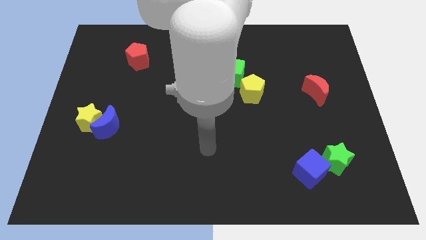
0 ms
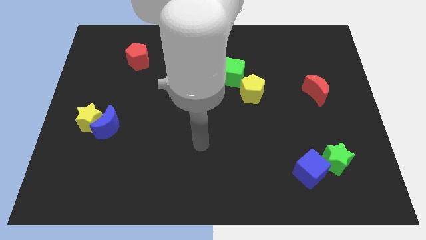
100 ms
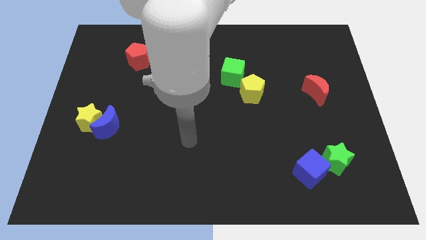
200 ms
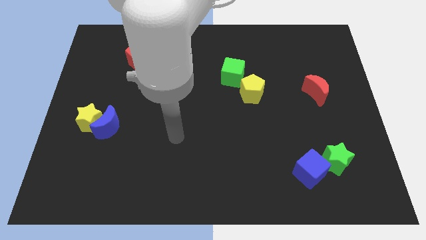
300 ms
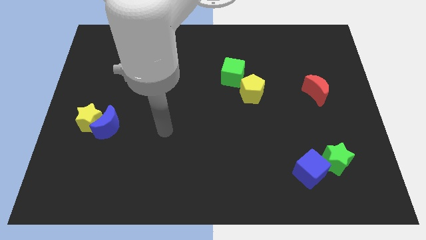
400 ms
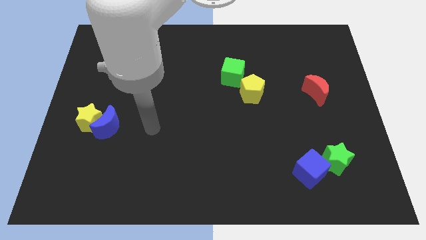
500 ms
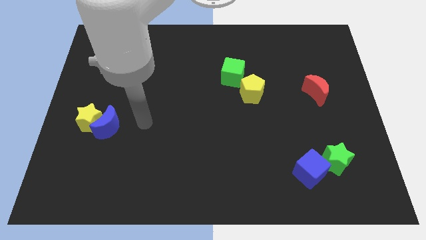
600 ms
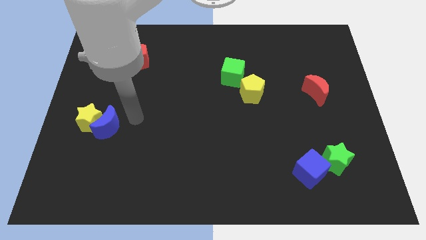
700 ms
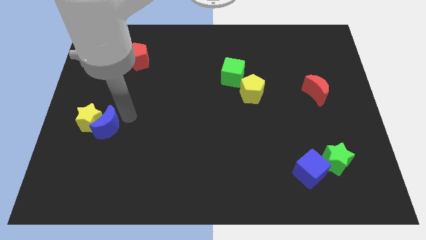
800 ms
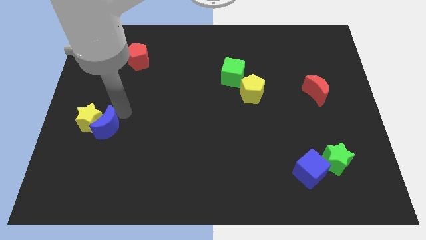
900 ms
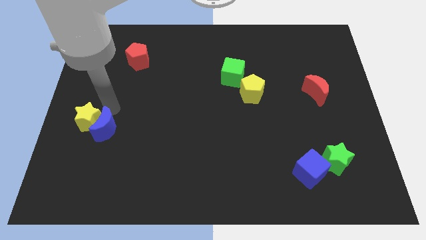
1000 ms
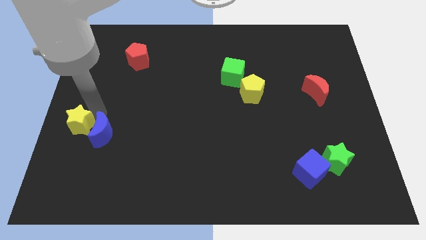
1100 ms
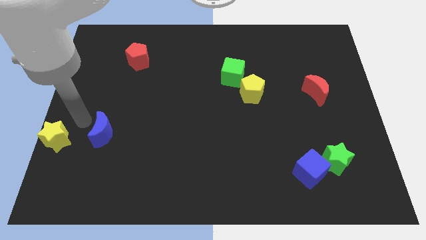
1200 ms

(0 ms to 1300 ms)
move the blue moon away from the yellow star

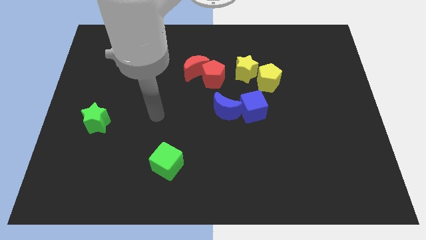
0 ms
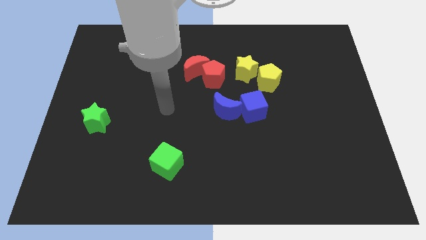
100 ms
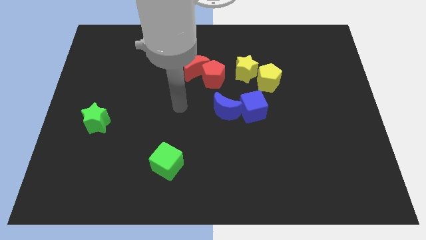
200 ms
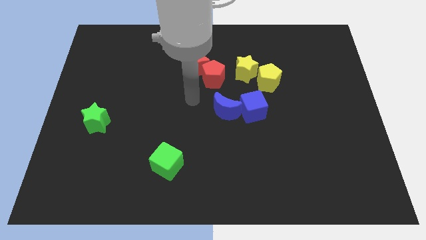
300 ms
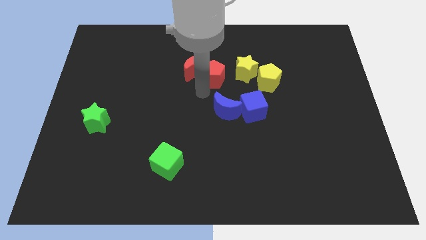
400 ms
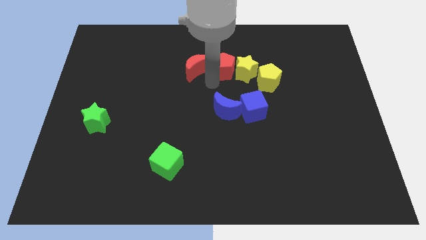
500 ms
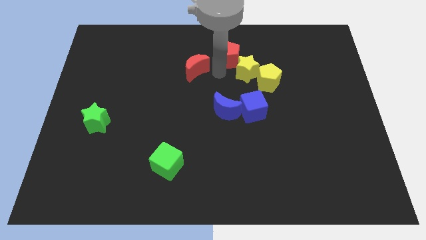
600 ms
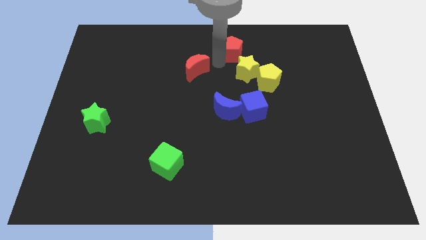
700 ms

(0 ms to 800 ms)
separate the red moon from the red pentagon

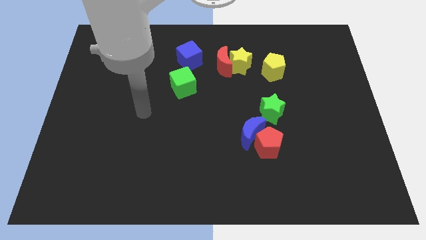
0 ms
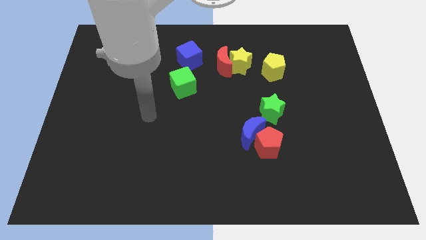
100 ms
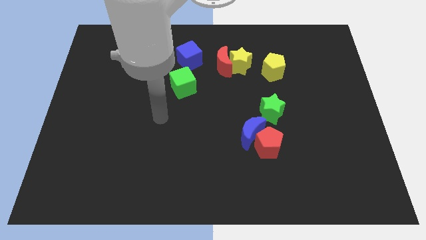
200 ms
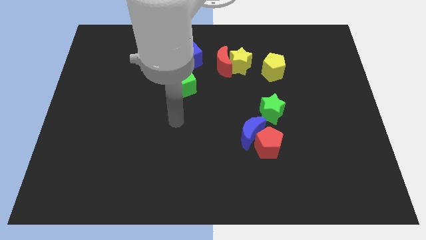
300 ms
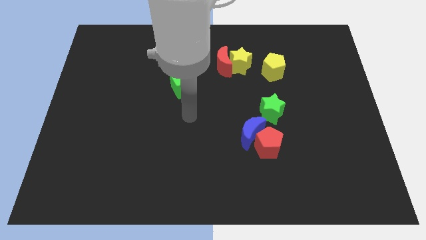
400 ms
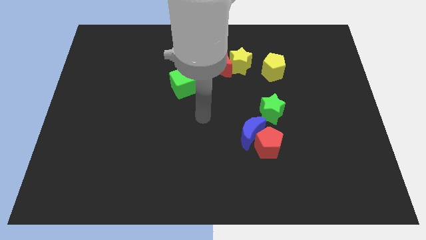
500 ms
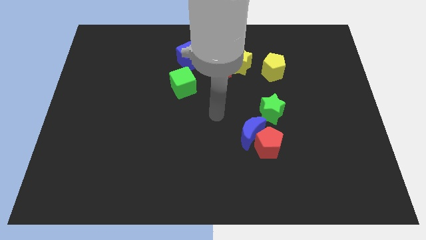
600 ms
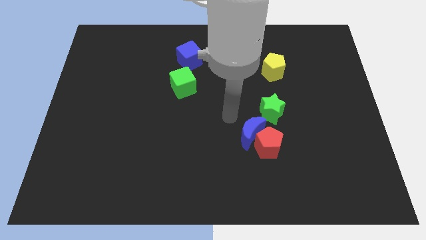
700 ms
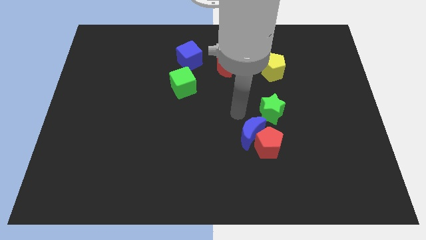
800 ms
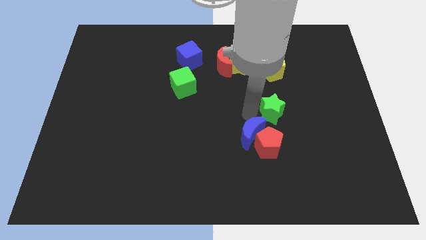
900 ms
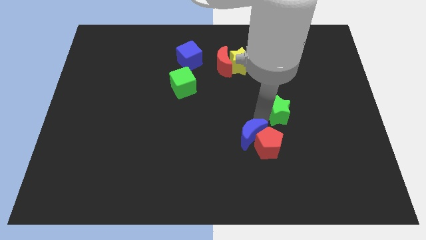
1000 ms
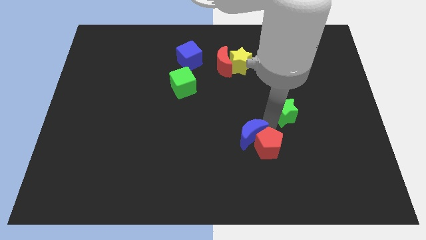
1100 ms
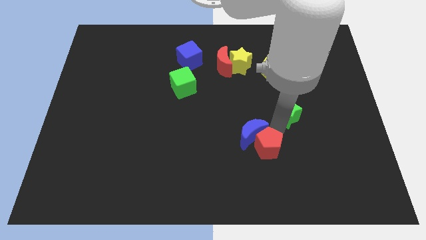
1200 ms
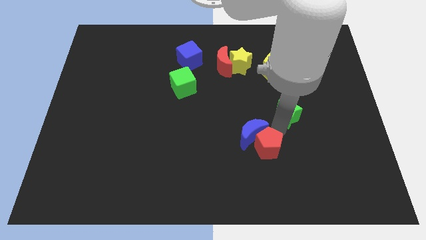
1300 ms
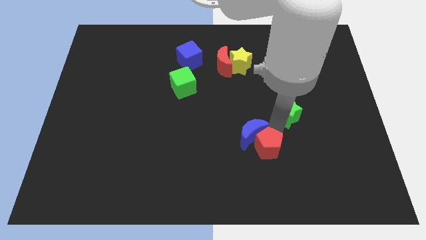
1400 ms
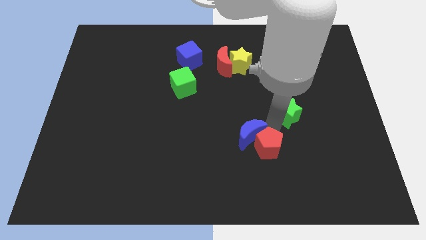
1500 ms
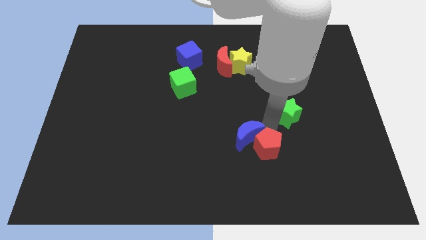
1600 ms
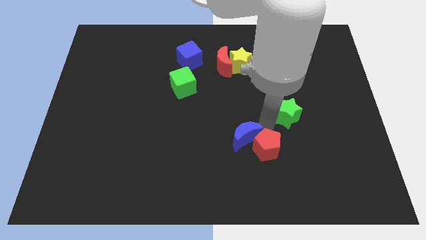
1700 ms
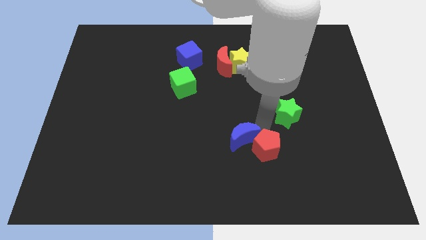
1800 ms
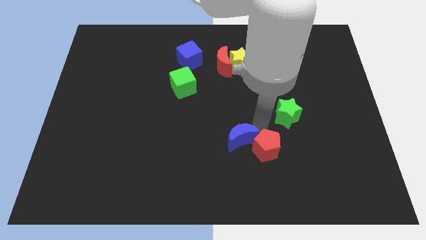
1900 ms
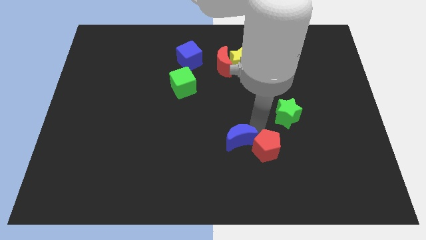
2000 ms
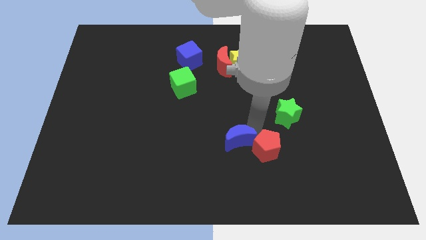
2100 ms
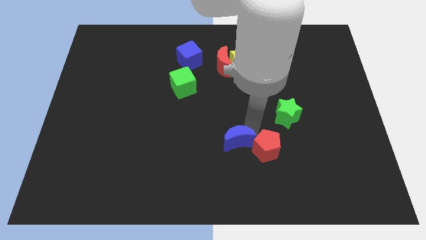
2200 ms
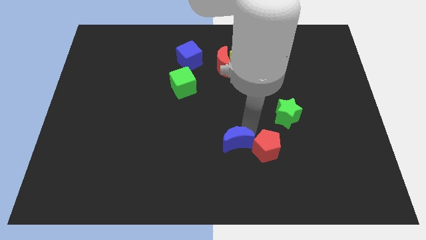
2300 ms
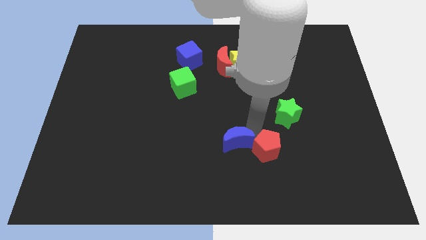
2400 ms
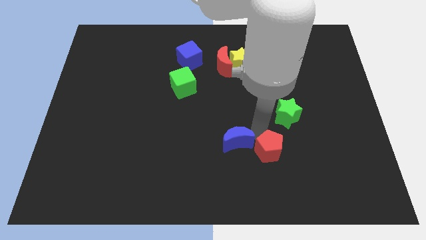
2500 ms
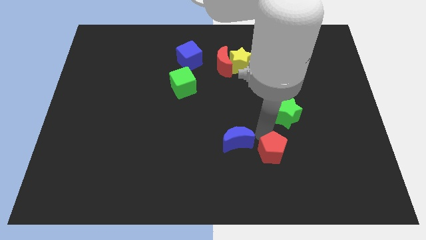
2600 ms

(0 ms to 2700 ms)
move the blue moon away from the red pentagon and green star

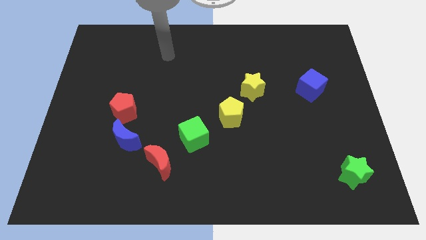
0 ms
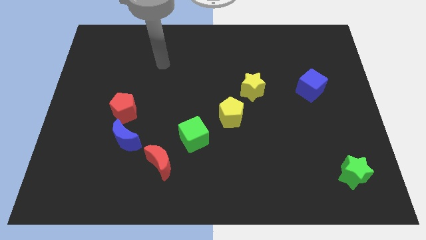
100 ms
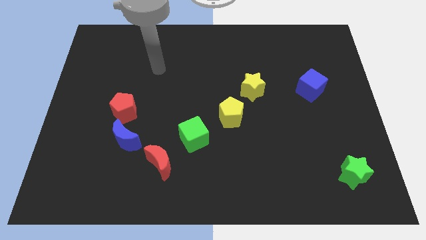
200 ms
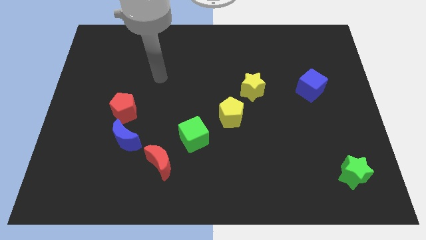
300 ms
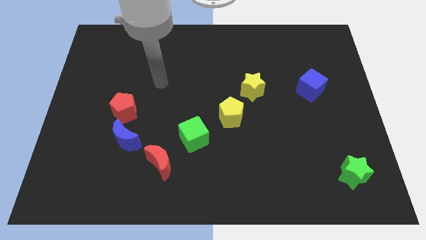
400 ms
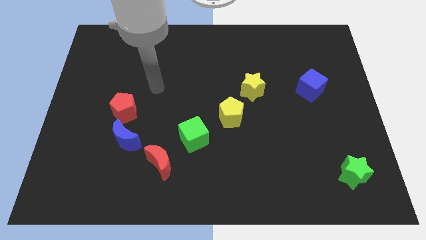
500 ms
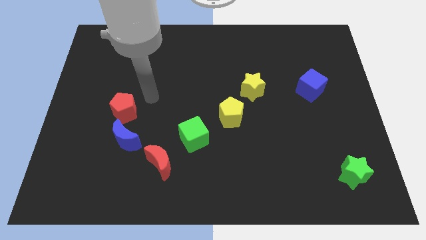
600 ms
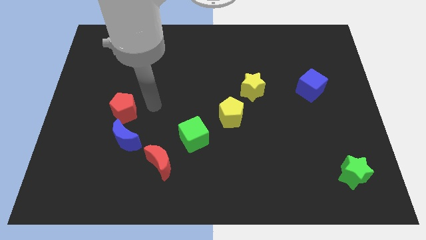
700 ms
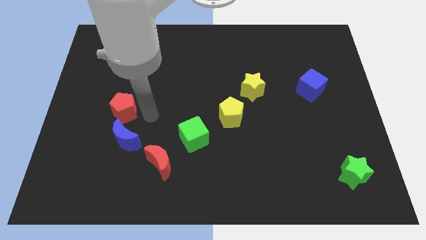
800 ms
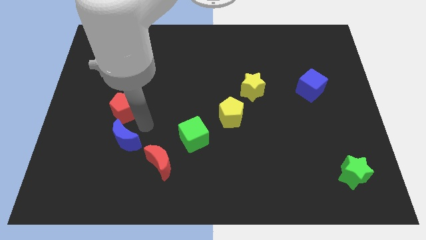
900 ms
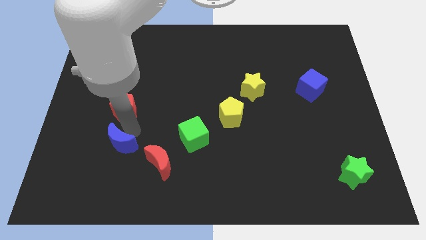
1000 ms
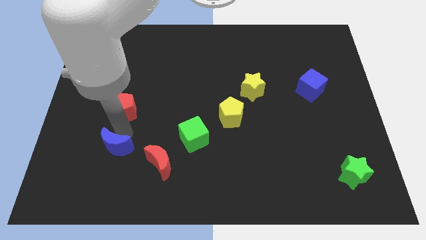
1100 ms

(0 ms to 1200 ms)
separate the red pentagon from the blue moon

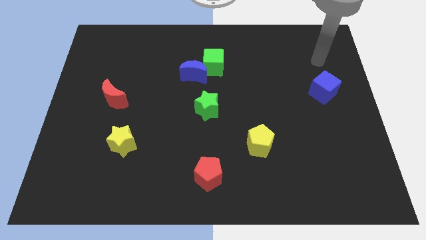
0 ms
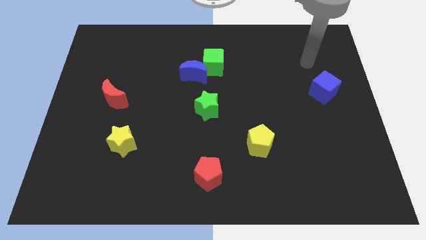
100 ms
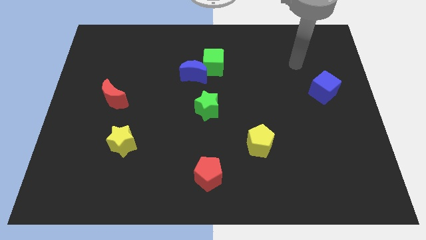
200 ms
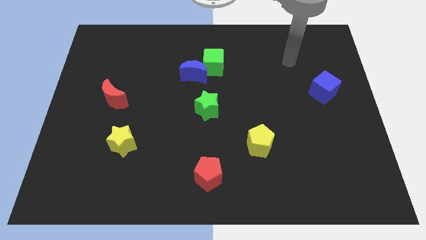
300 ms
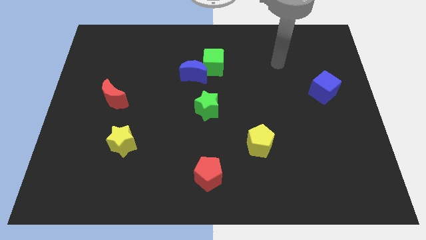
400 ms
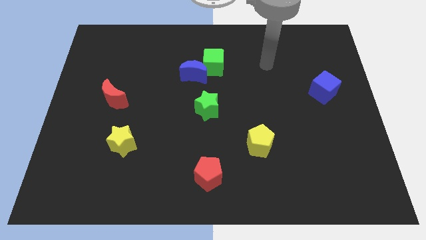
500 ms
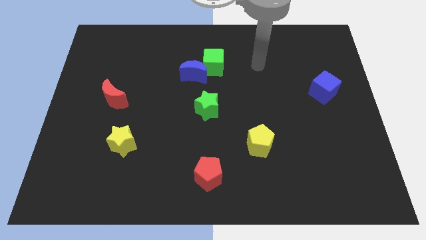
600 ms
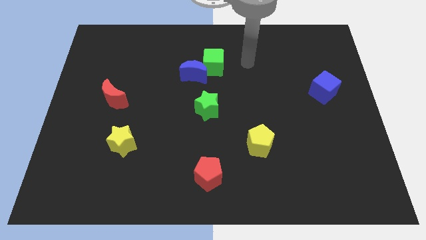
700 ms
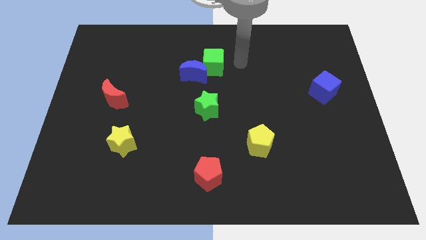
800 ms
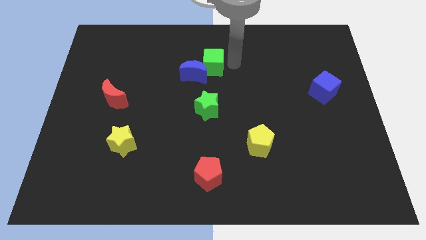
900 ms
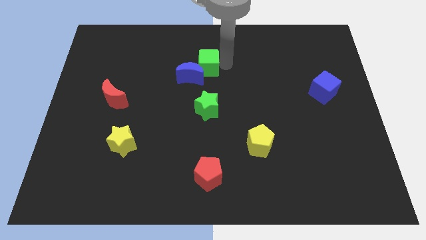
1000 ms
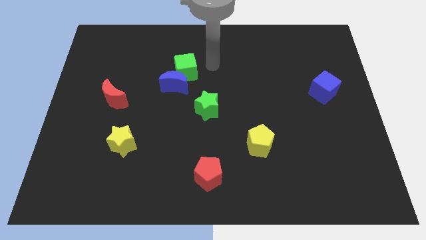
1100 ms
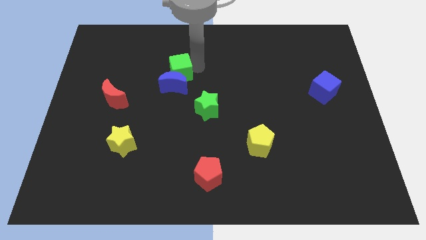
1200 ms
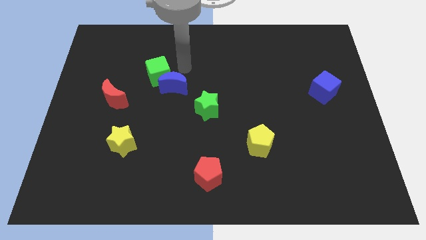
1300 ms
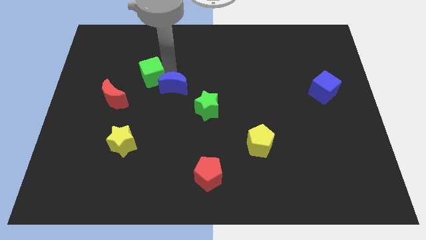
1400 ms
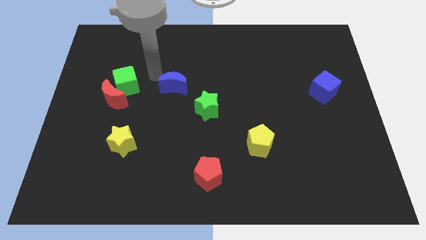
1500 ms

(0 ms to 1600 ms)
separate the blue moon from the green cube

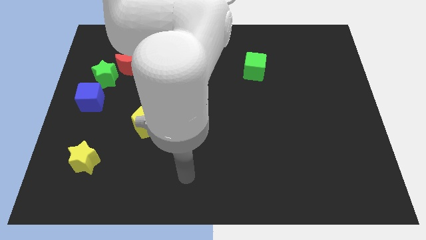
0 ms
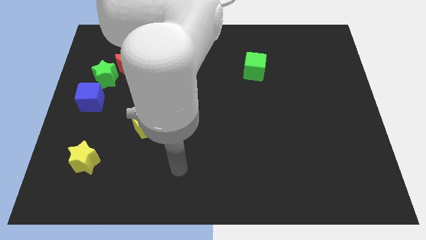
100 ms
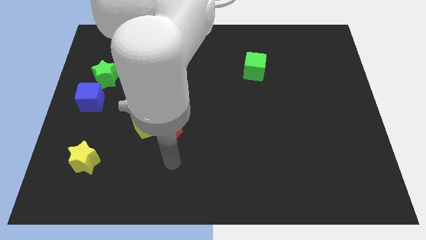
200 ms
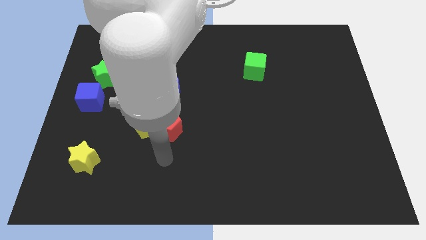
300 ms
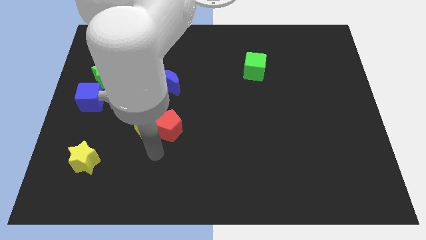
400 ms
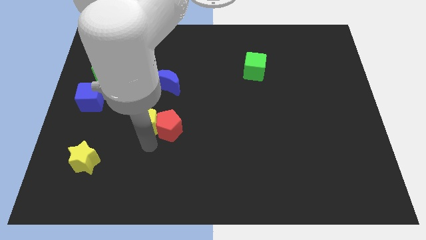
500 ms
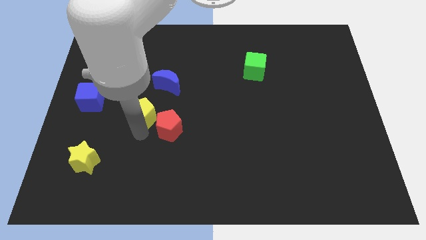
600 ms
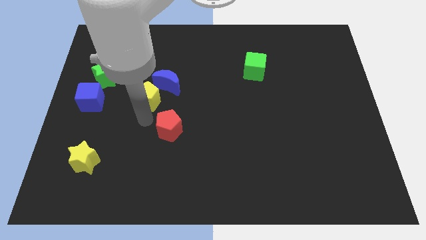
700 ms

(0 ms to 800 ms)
move the red pentagon away from the yellow pentagon

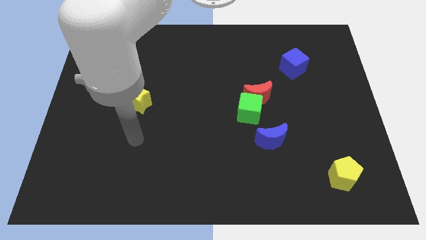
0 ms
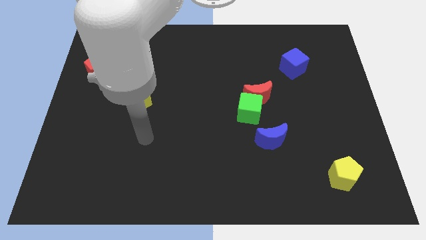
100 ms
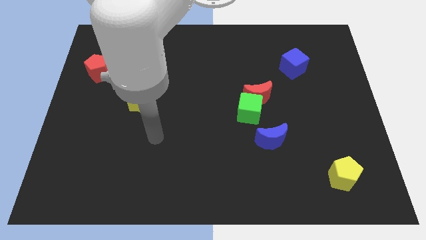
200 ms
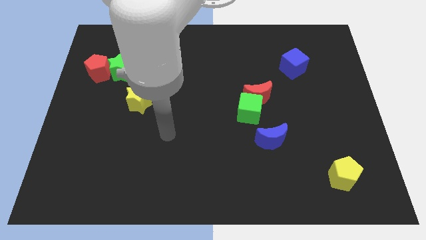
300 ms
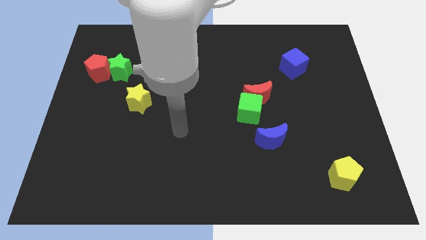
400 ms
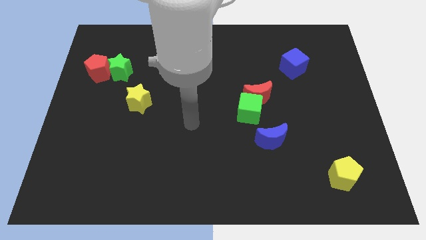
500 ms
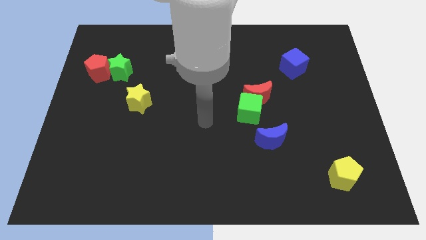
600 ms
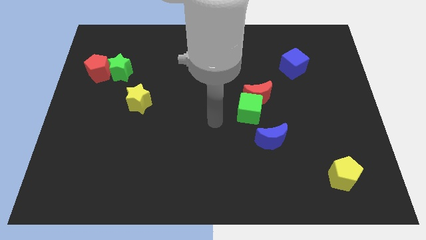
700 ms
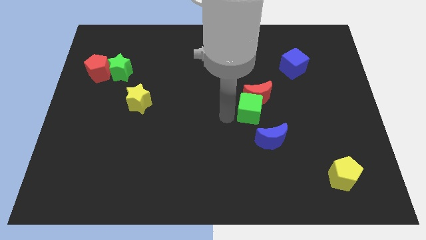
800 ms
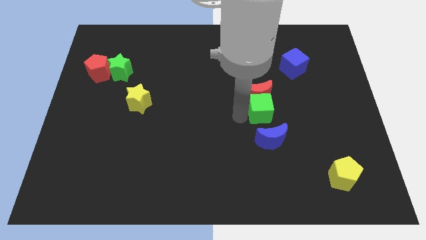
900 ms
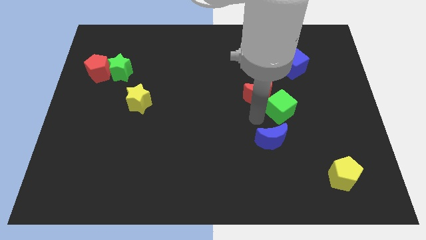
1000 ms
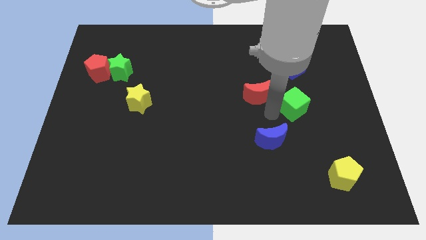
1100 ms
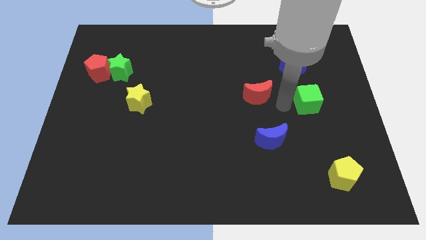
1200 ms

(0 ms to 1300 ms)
separate the red moon from the green cube
